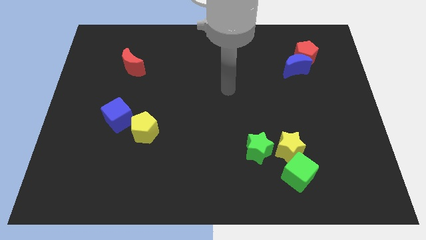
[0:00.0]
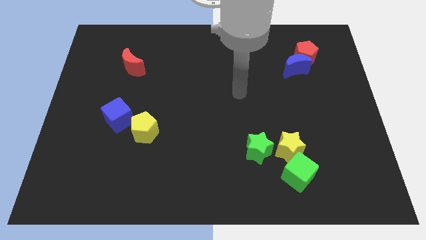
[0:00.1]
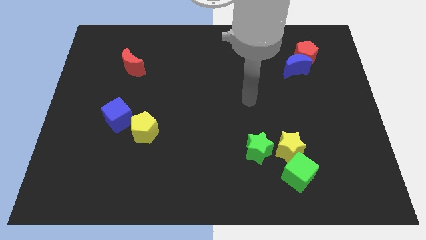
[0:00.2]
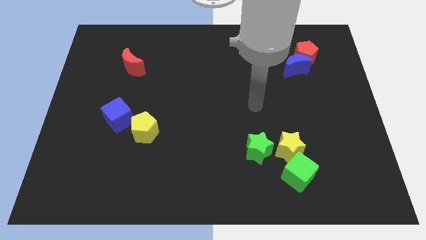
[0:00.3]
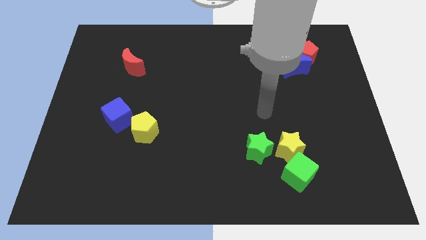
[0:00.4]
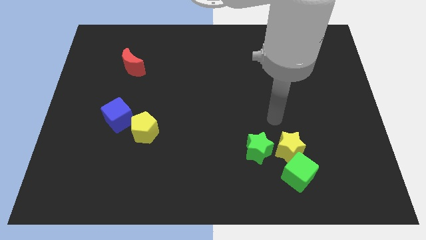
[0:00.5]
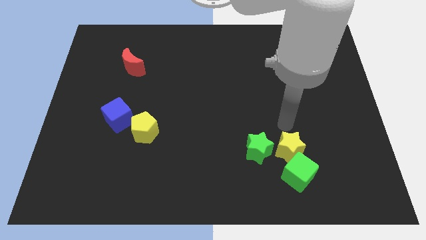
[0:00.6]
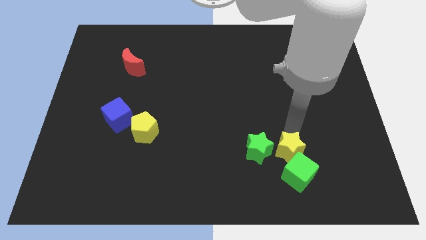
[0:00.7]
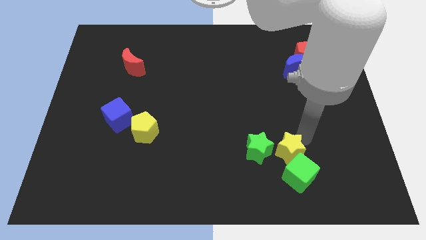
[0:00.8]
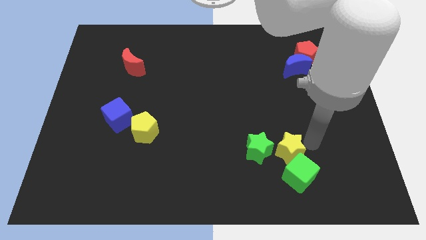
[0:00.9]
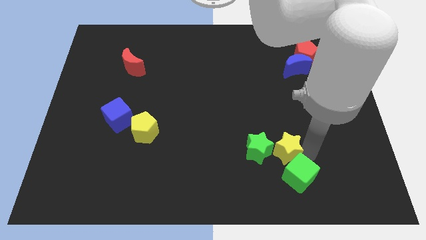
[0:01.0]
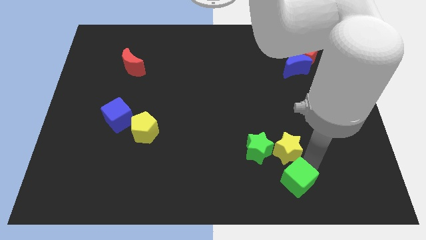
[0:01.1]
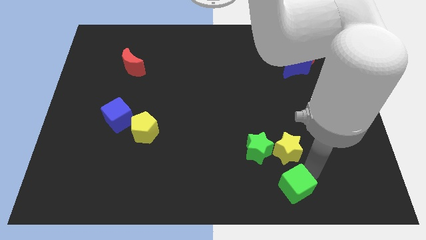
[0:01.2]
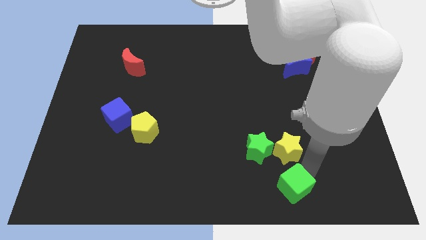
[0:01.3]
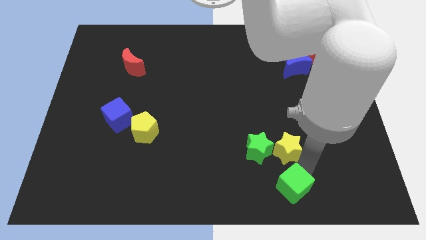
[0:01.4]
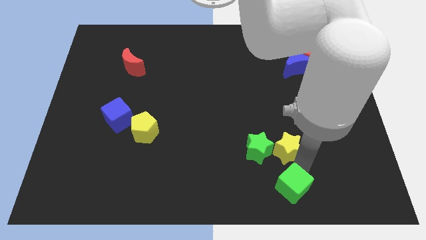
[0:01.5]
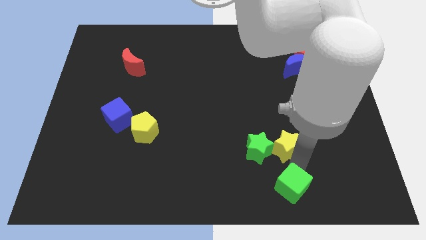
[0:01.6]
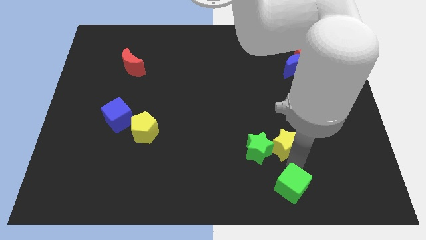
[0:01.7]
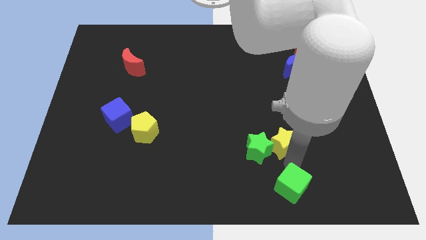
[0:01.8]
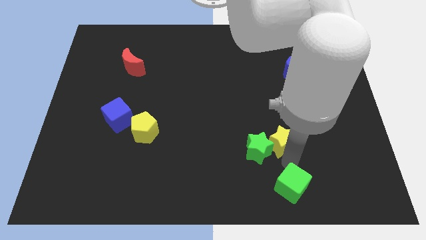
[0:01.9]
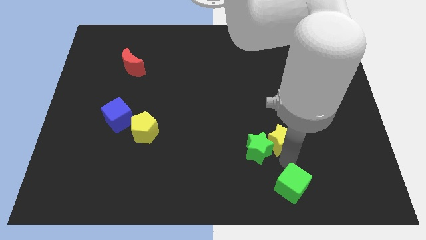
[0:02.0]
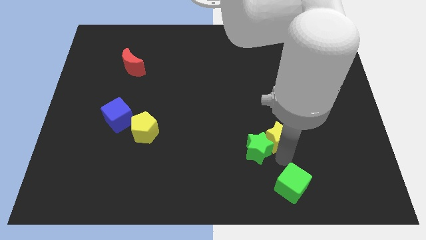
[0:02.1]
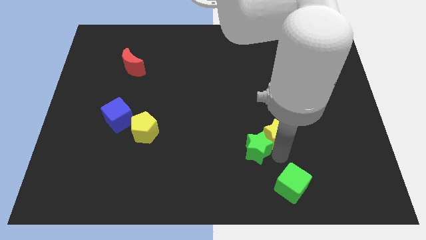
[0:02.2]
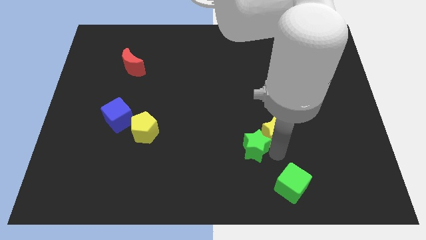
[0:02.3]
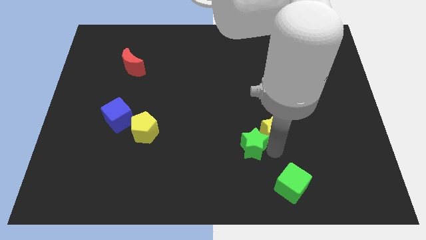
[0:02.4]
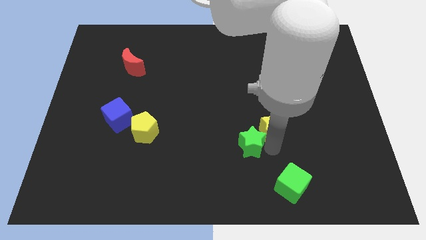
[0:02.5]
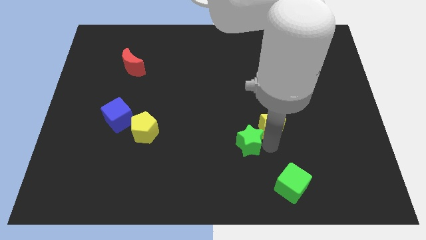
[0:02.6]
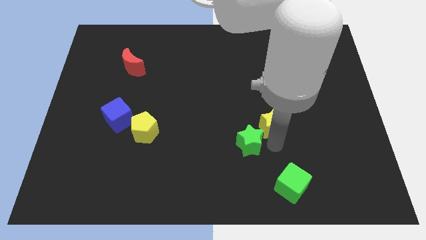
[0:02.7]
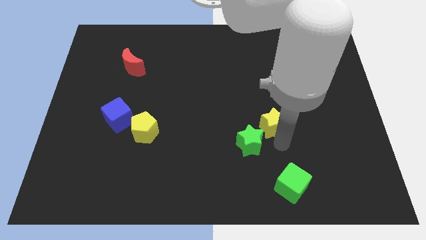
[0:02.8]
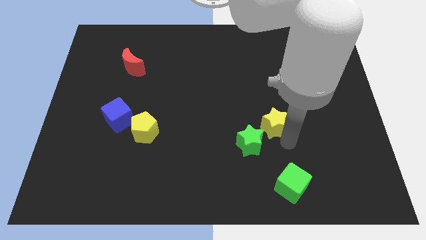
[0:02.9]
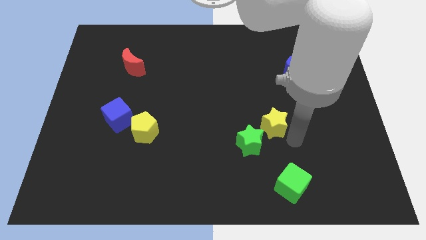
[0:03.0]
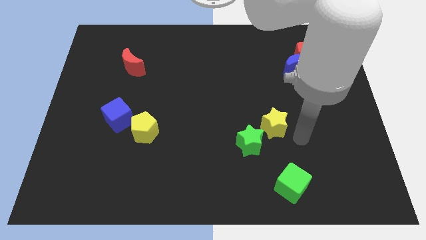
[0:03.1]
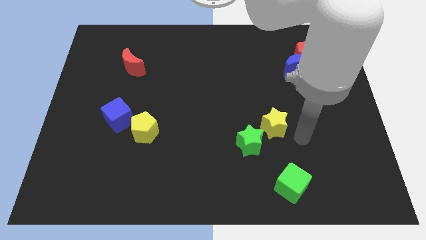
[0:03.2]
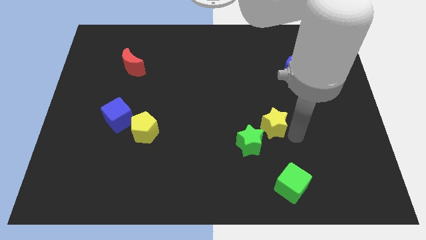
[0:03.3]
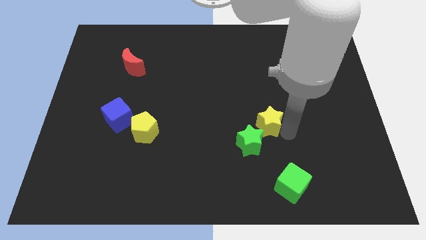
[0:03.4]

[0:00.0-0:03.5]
slide the yellow star a bit diagonally upwards and left

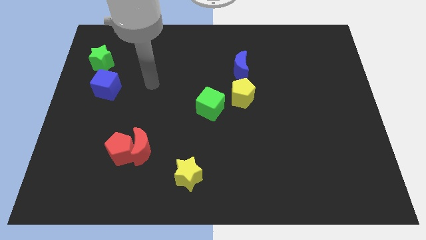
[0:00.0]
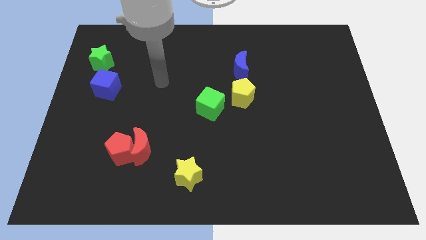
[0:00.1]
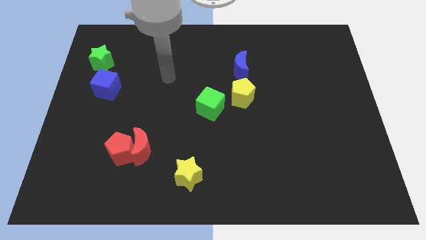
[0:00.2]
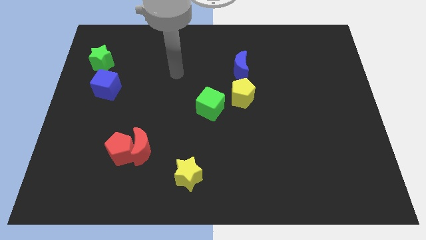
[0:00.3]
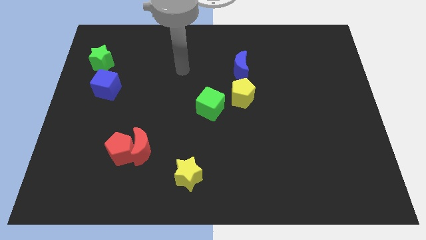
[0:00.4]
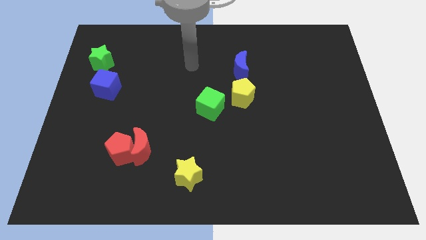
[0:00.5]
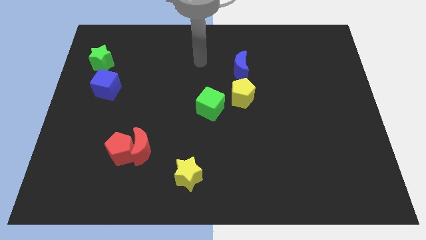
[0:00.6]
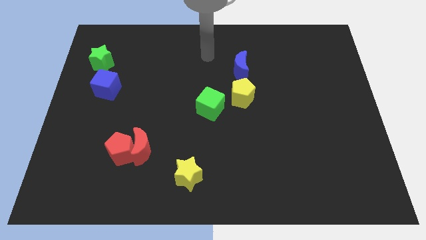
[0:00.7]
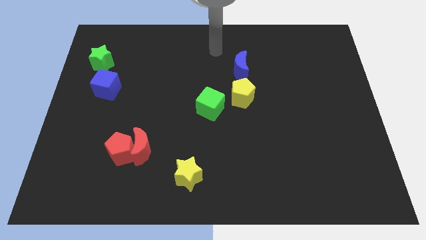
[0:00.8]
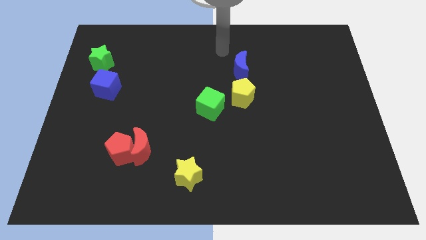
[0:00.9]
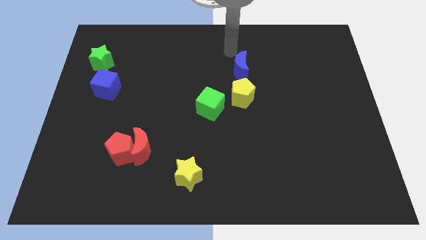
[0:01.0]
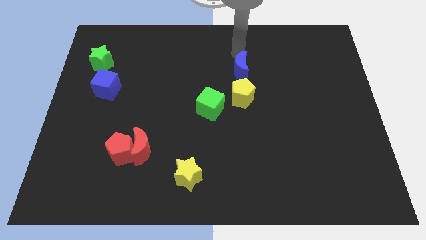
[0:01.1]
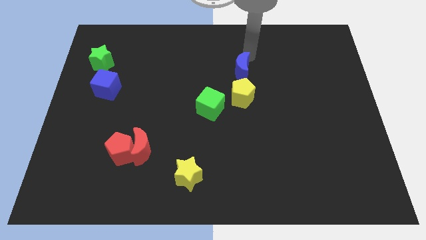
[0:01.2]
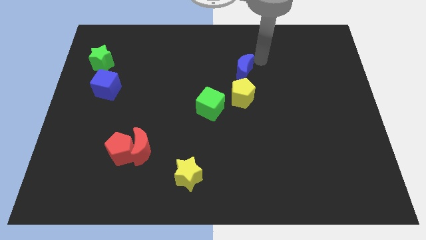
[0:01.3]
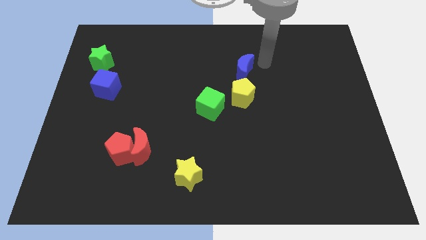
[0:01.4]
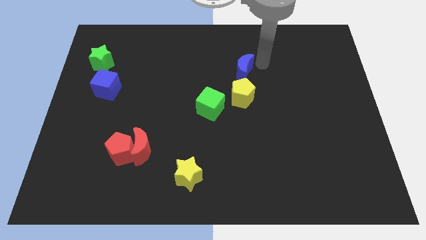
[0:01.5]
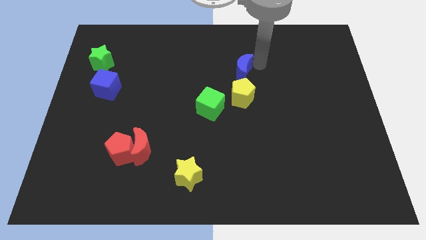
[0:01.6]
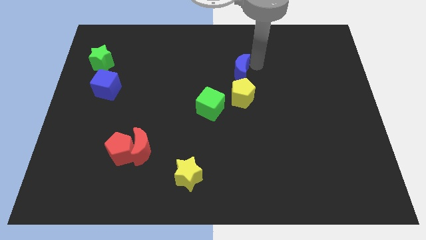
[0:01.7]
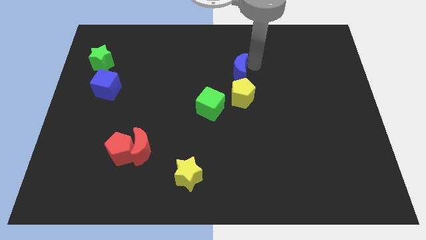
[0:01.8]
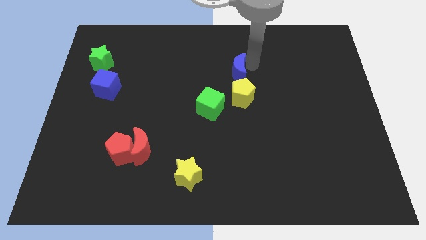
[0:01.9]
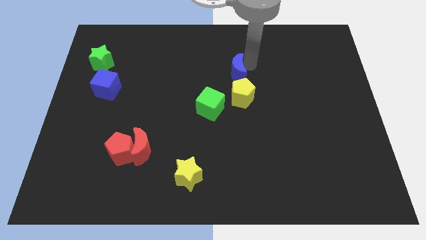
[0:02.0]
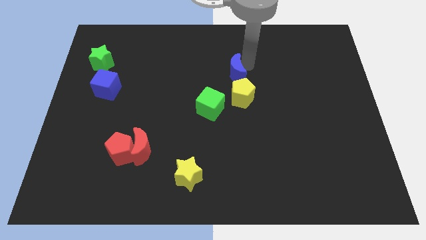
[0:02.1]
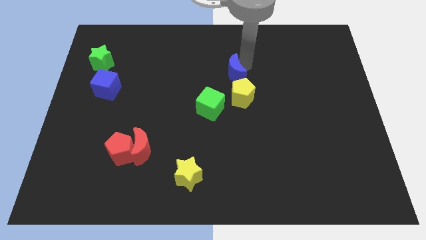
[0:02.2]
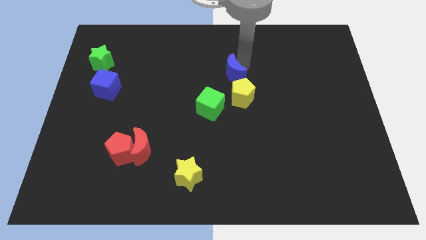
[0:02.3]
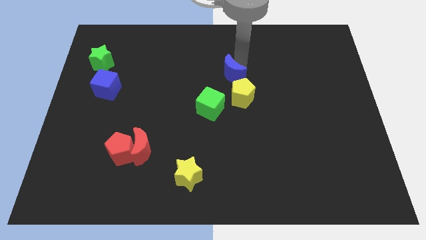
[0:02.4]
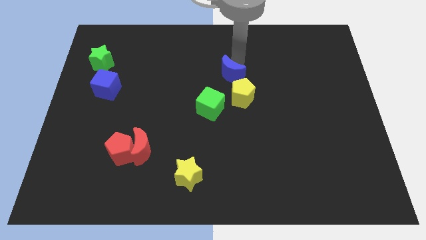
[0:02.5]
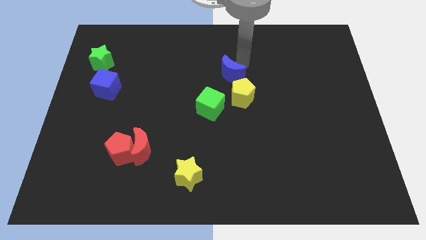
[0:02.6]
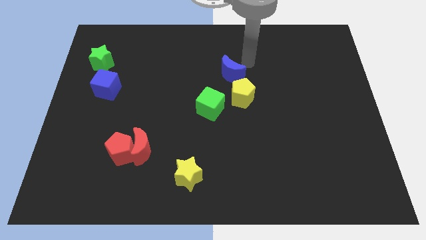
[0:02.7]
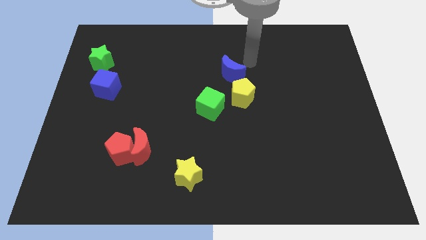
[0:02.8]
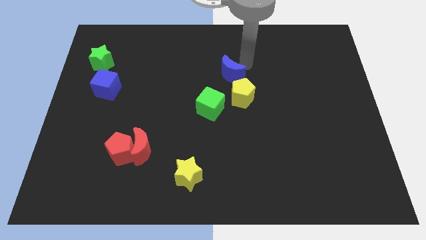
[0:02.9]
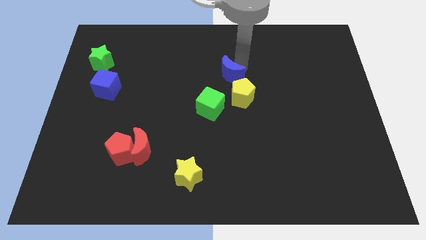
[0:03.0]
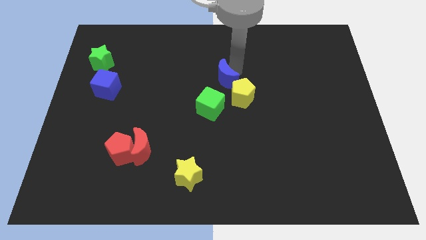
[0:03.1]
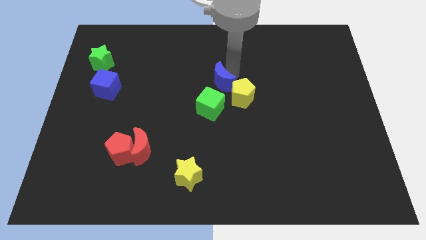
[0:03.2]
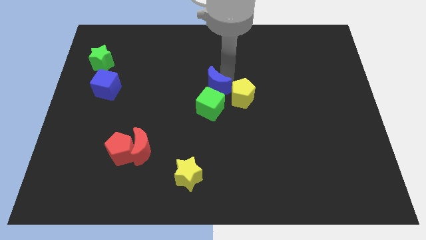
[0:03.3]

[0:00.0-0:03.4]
push the blue moon diagonally downwards and left somewhat

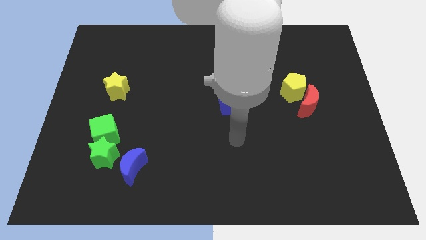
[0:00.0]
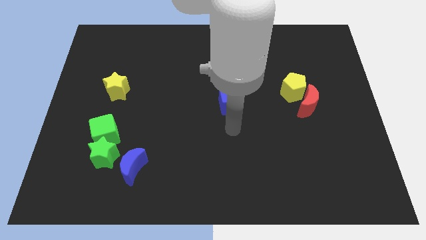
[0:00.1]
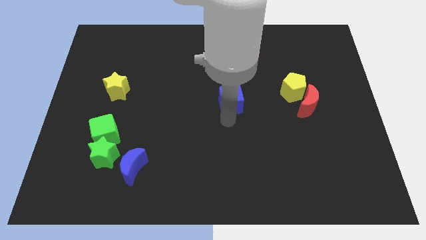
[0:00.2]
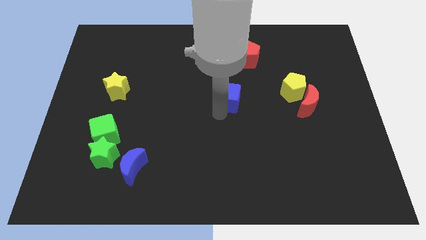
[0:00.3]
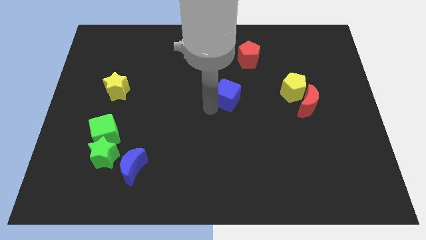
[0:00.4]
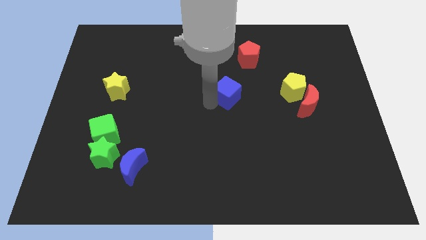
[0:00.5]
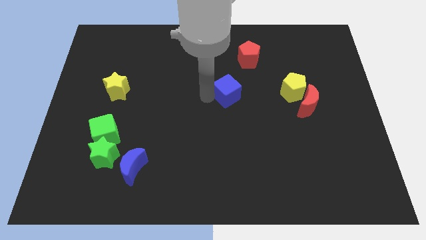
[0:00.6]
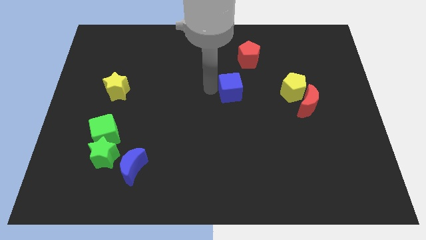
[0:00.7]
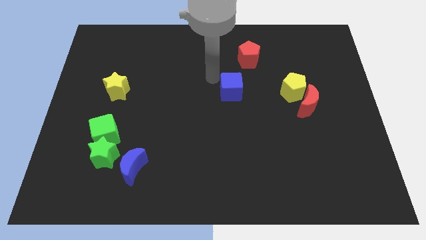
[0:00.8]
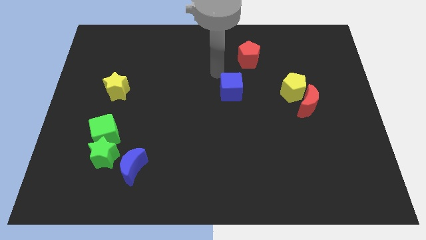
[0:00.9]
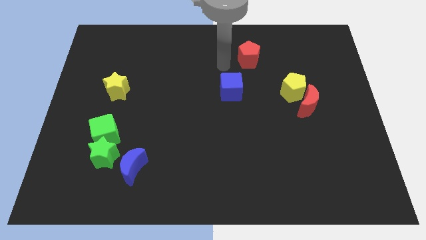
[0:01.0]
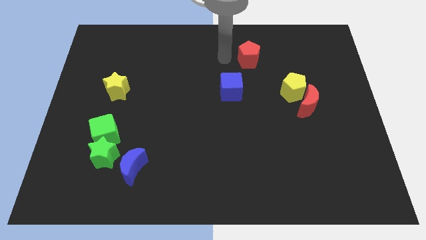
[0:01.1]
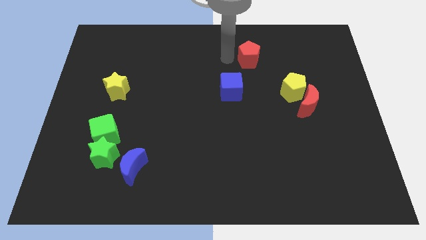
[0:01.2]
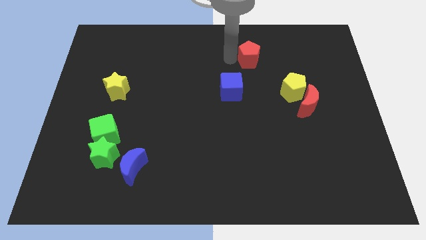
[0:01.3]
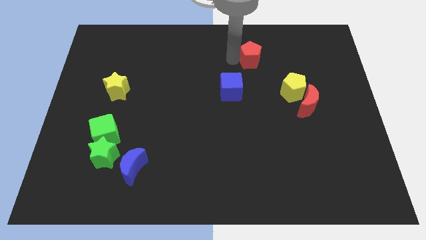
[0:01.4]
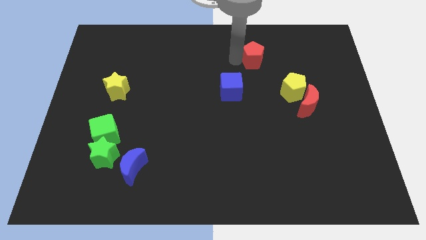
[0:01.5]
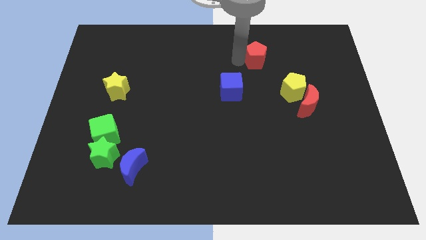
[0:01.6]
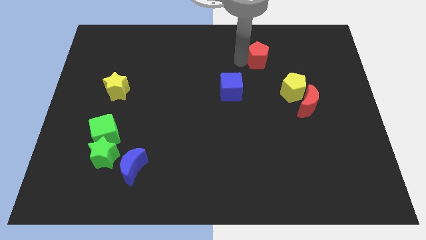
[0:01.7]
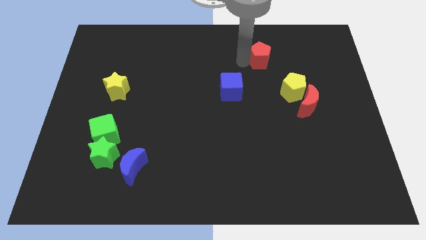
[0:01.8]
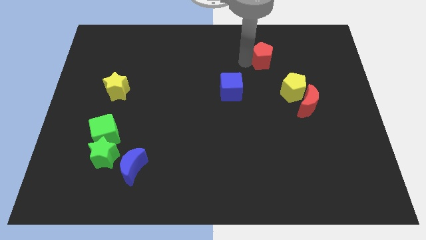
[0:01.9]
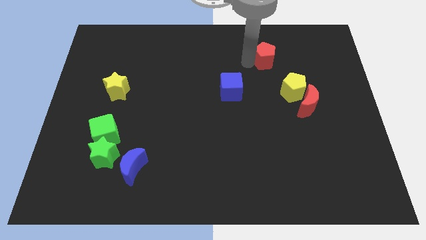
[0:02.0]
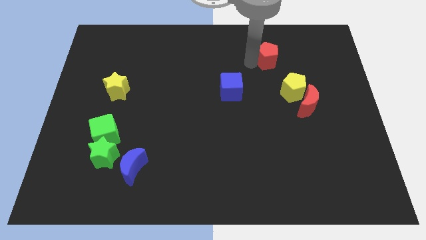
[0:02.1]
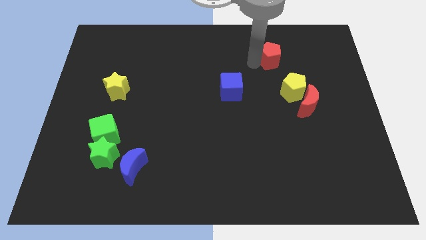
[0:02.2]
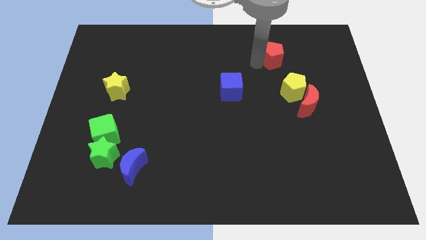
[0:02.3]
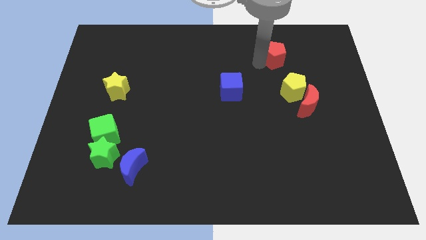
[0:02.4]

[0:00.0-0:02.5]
slide the red pentagon somewhat to the right
